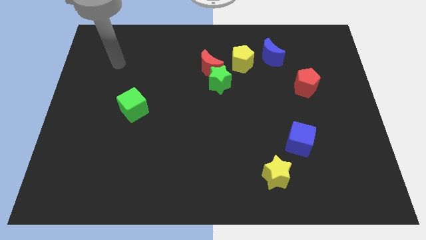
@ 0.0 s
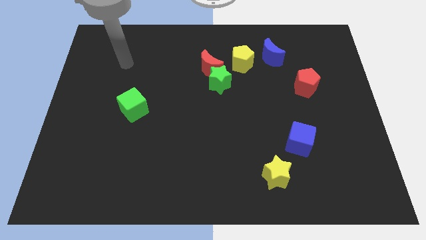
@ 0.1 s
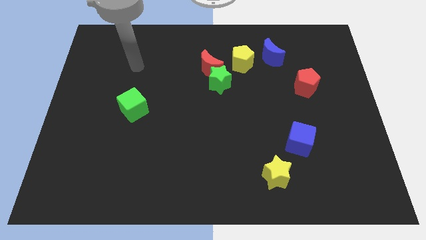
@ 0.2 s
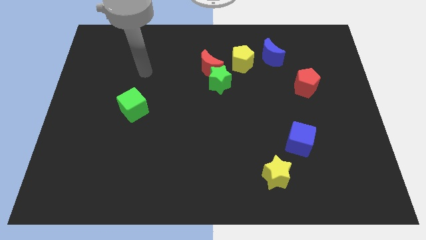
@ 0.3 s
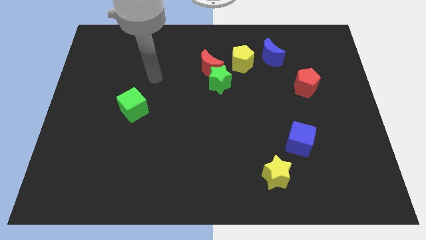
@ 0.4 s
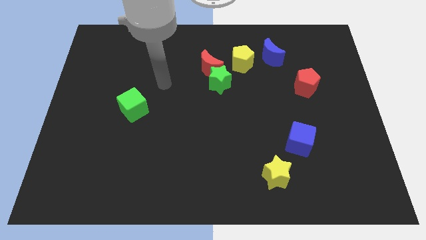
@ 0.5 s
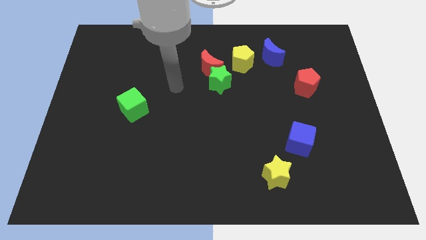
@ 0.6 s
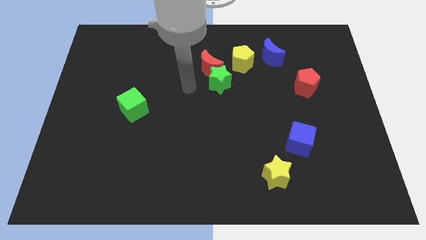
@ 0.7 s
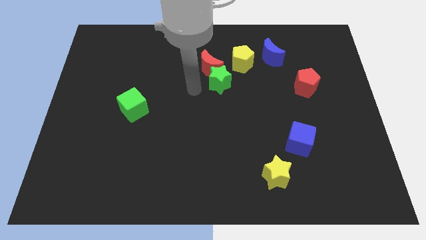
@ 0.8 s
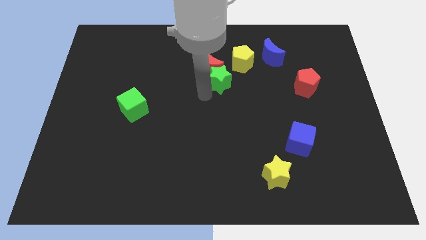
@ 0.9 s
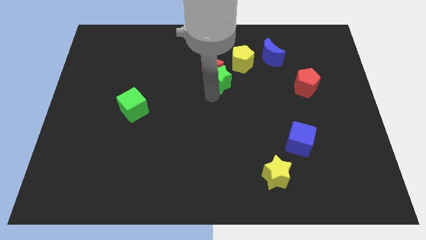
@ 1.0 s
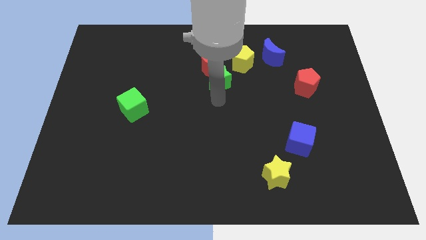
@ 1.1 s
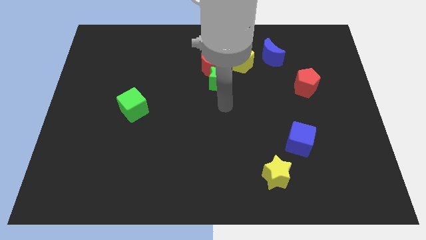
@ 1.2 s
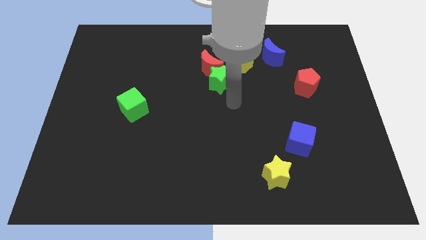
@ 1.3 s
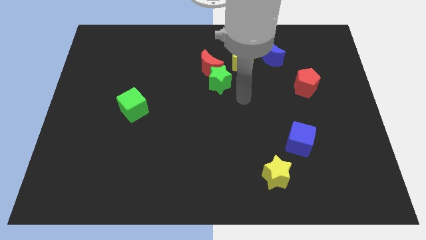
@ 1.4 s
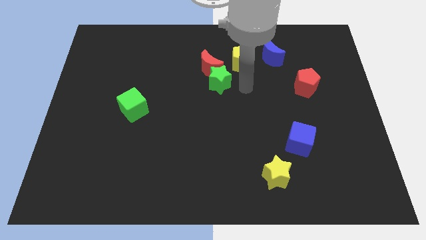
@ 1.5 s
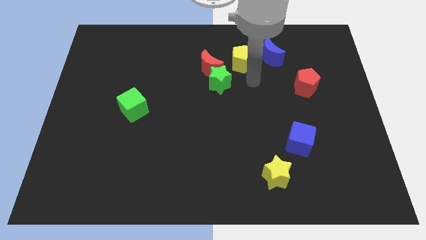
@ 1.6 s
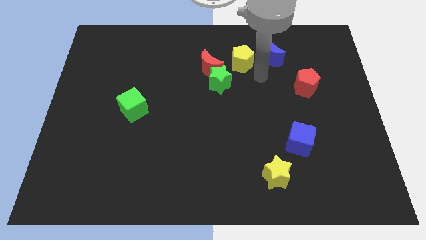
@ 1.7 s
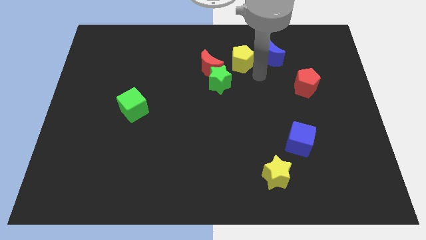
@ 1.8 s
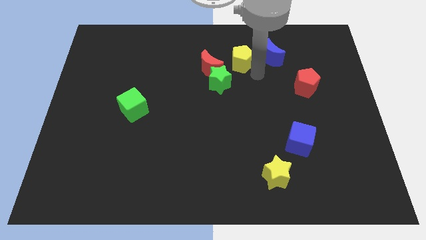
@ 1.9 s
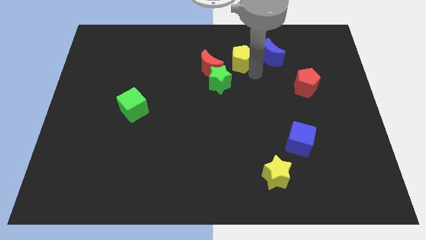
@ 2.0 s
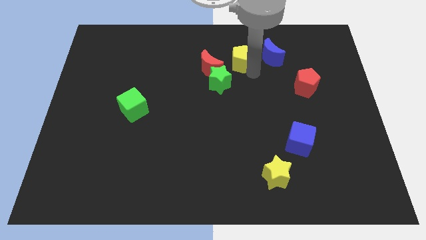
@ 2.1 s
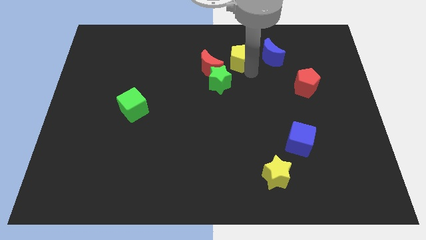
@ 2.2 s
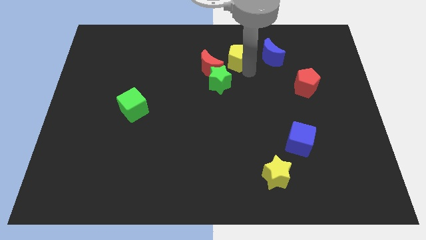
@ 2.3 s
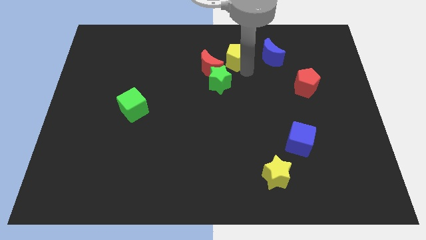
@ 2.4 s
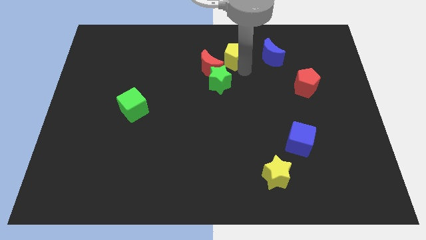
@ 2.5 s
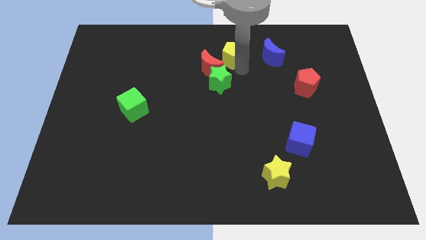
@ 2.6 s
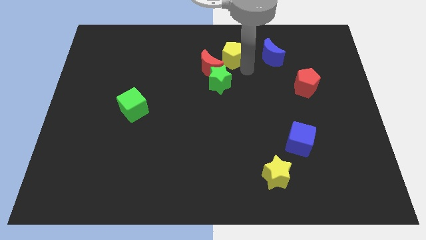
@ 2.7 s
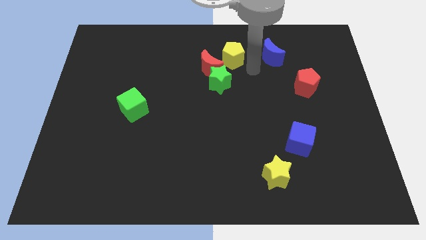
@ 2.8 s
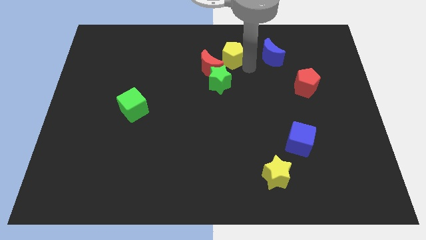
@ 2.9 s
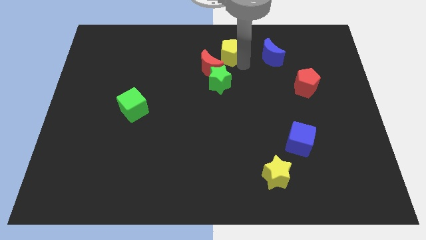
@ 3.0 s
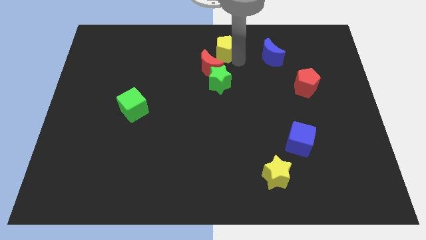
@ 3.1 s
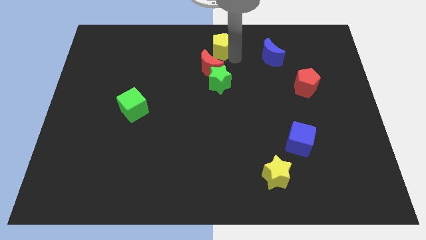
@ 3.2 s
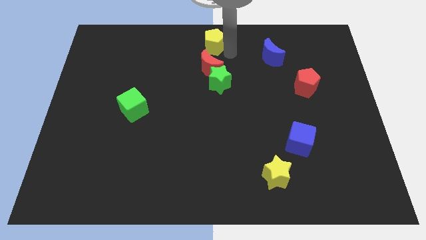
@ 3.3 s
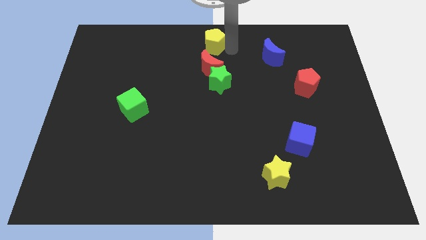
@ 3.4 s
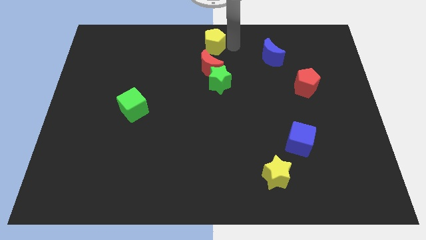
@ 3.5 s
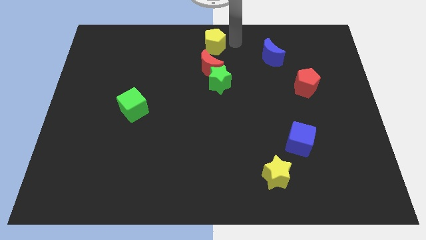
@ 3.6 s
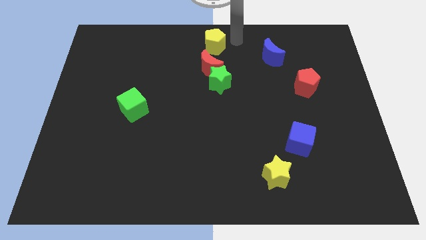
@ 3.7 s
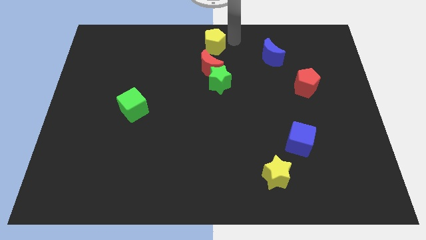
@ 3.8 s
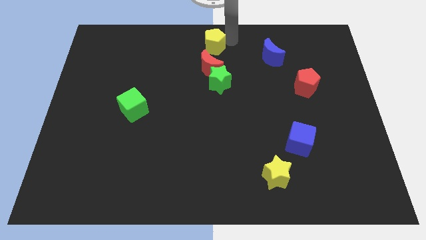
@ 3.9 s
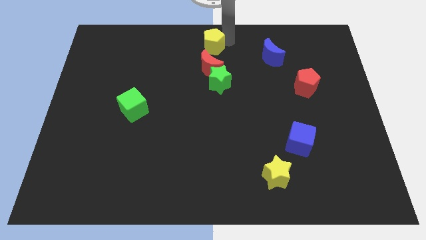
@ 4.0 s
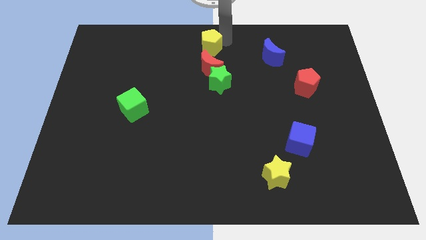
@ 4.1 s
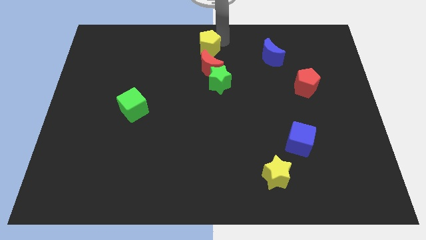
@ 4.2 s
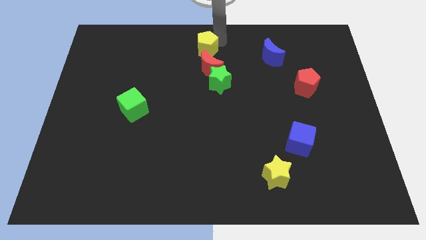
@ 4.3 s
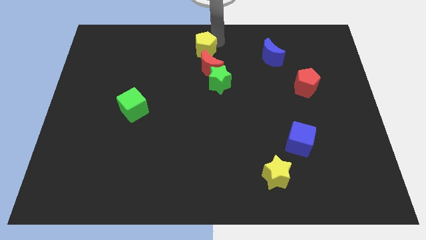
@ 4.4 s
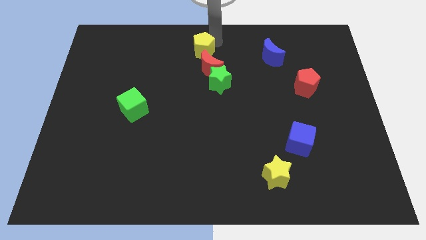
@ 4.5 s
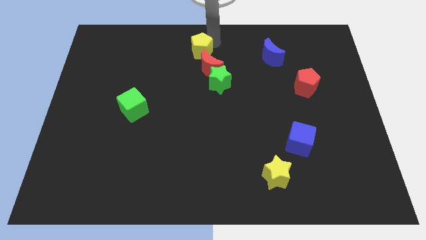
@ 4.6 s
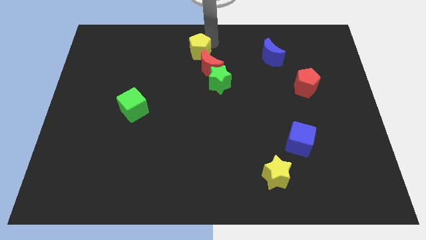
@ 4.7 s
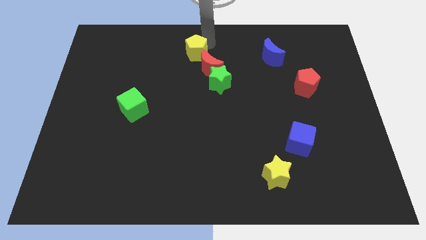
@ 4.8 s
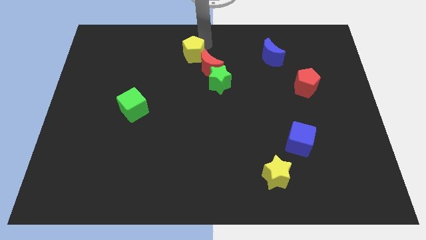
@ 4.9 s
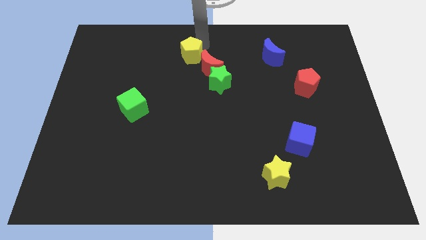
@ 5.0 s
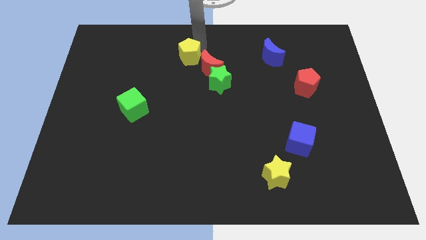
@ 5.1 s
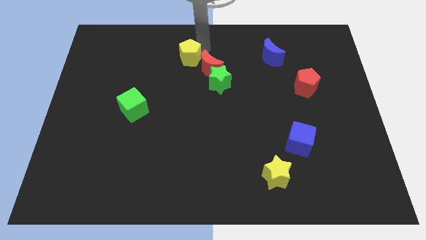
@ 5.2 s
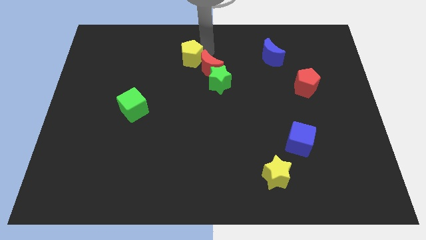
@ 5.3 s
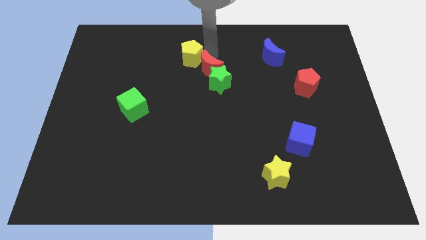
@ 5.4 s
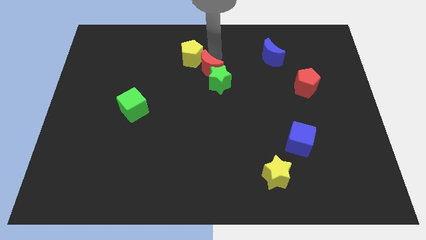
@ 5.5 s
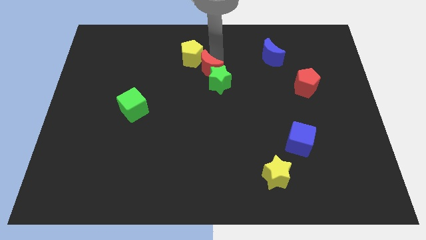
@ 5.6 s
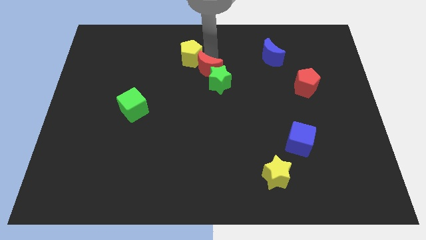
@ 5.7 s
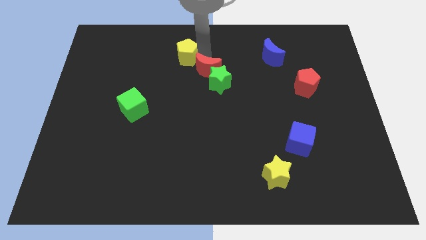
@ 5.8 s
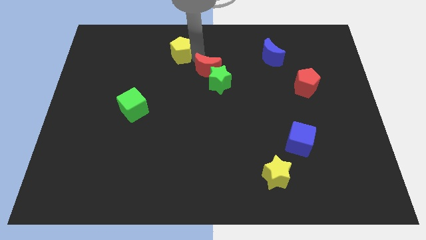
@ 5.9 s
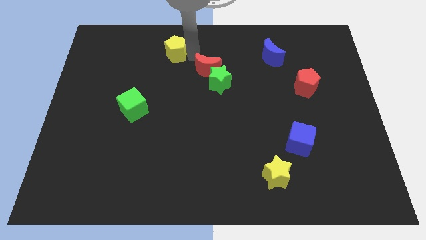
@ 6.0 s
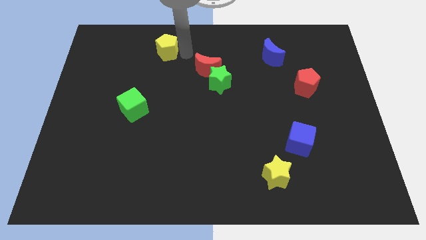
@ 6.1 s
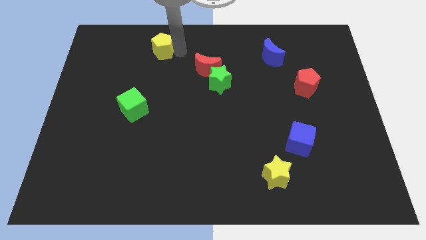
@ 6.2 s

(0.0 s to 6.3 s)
push the yellow pentagon to the left

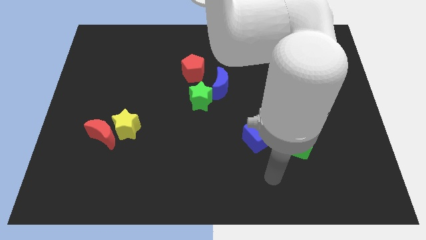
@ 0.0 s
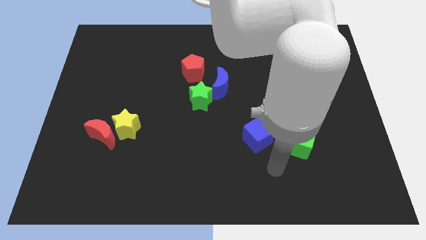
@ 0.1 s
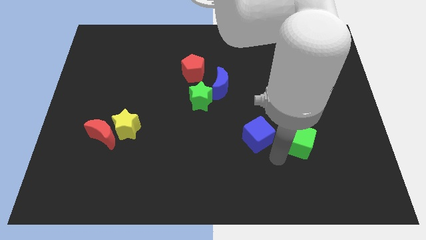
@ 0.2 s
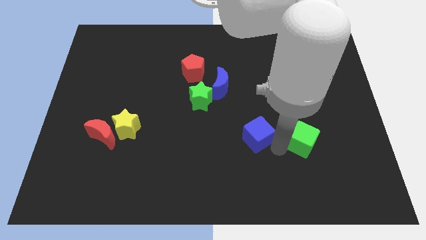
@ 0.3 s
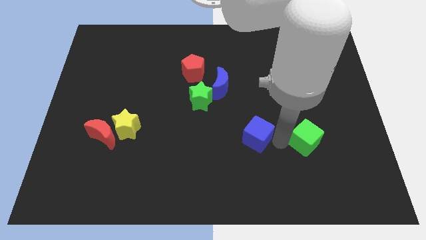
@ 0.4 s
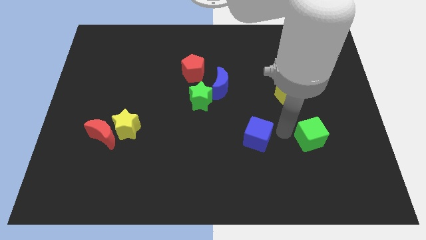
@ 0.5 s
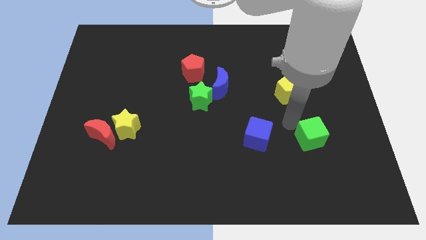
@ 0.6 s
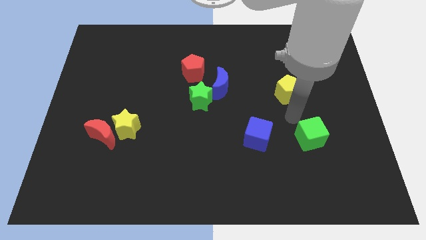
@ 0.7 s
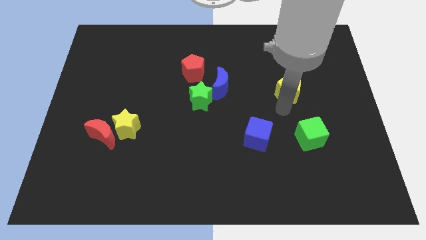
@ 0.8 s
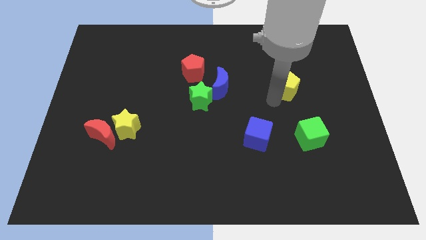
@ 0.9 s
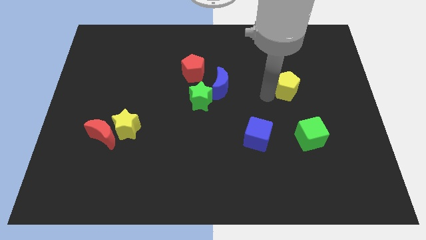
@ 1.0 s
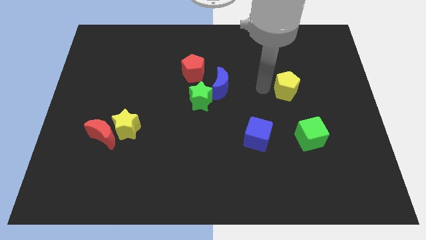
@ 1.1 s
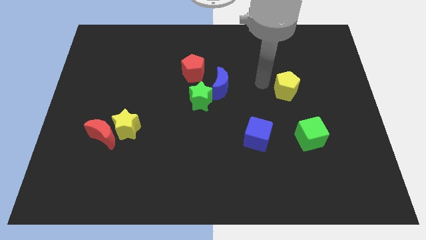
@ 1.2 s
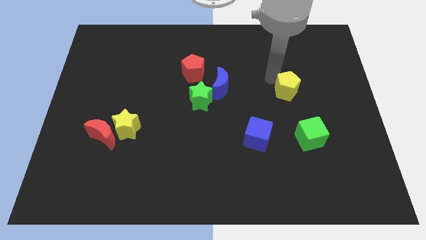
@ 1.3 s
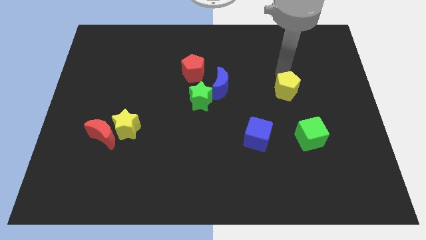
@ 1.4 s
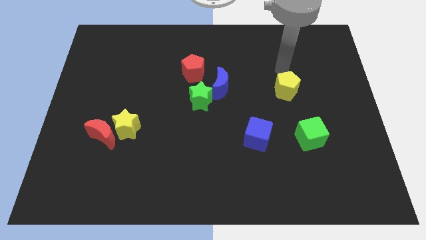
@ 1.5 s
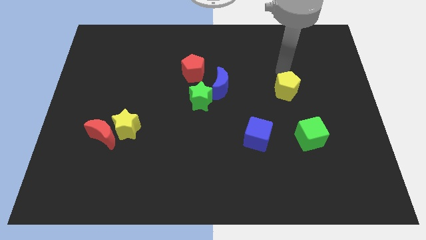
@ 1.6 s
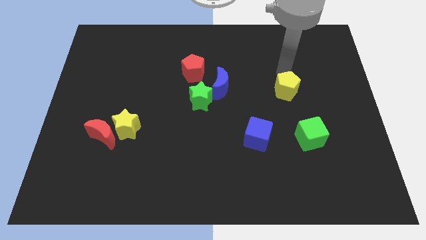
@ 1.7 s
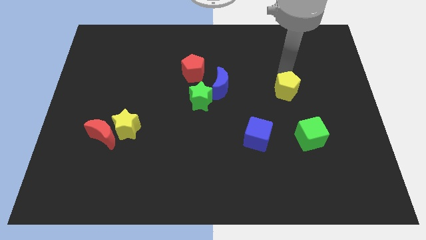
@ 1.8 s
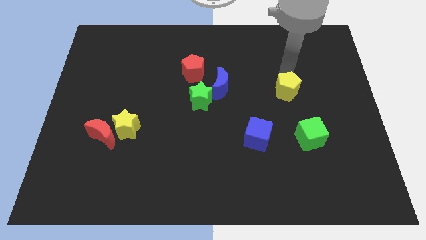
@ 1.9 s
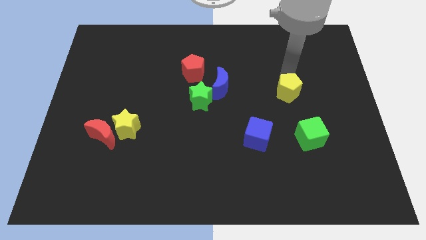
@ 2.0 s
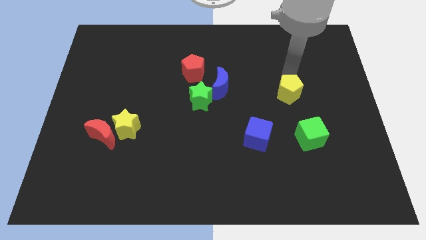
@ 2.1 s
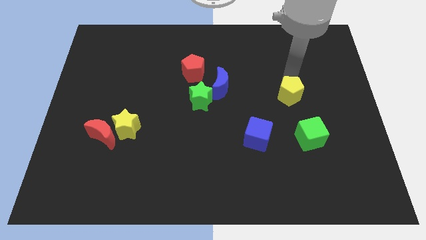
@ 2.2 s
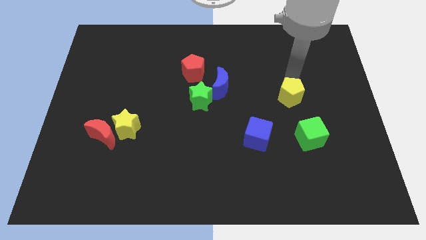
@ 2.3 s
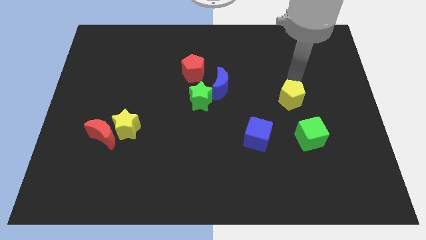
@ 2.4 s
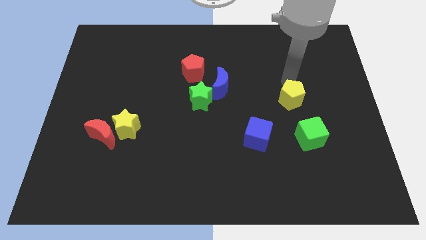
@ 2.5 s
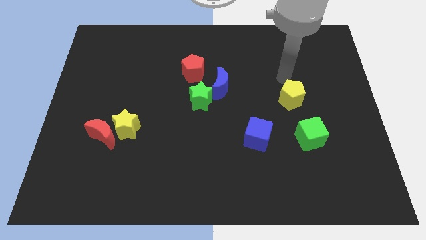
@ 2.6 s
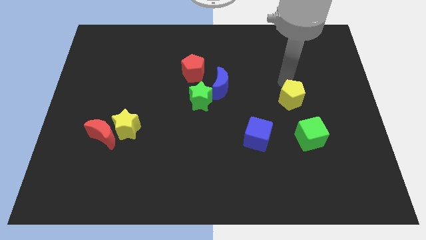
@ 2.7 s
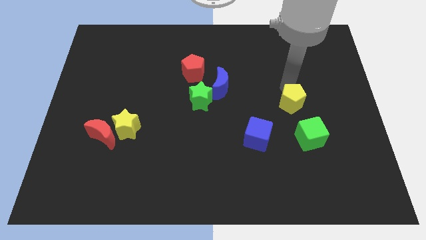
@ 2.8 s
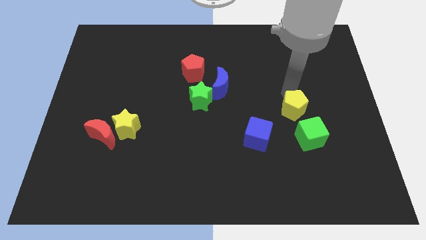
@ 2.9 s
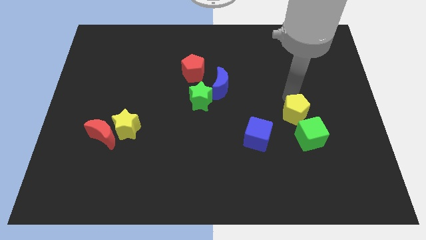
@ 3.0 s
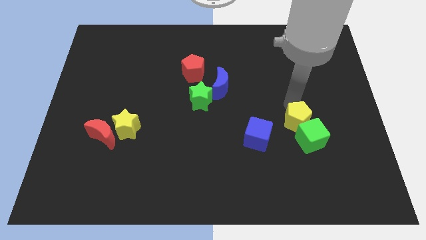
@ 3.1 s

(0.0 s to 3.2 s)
slide the yellow pentagon a little bit down
